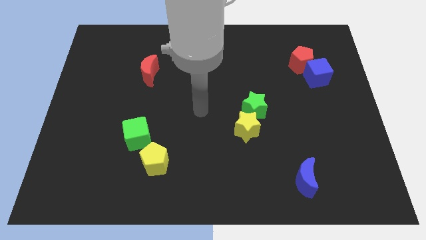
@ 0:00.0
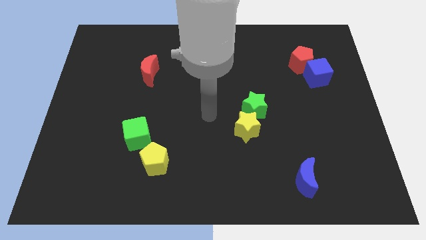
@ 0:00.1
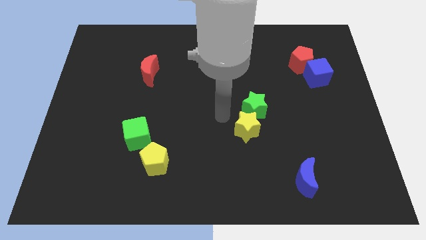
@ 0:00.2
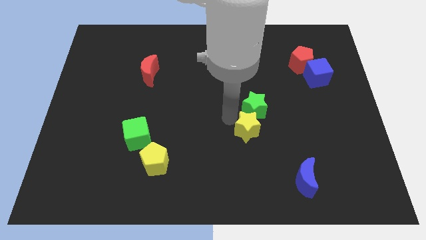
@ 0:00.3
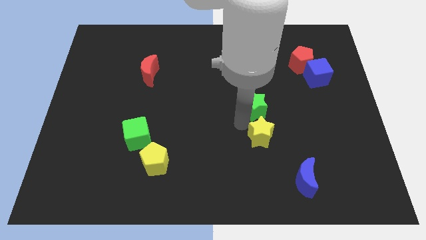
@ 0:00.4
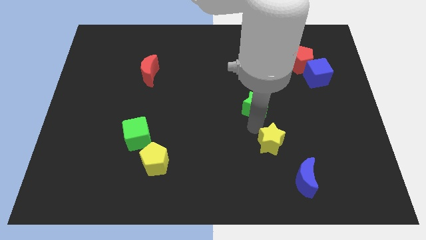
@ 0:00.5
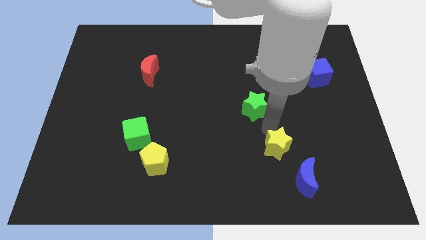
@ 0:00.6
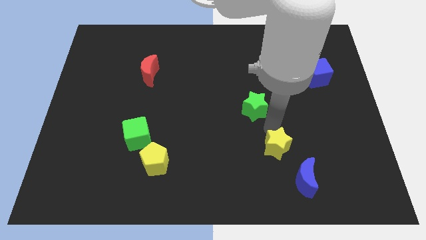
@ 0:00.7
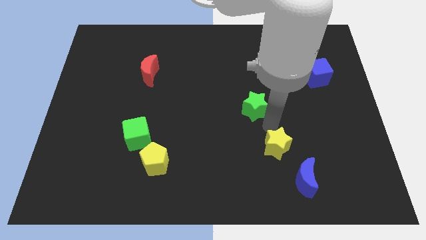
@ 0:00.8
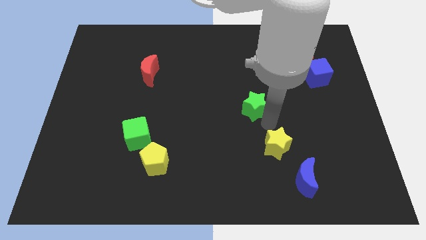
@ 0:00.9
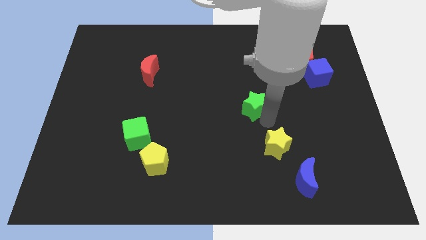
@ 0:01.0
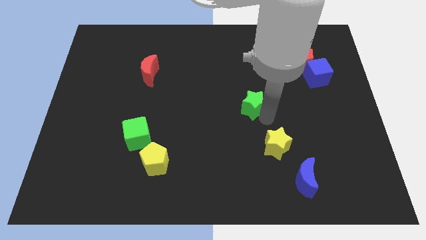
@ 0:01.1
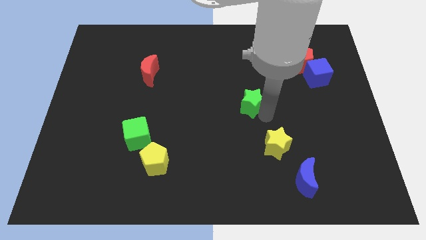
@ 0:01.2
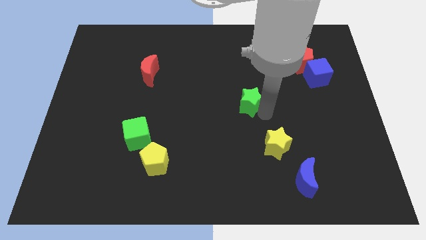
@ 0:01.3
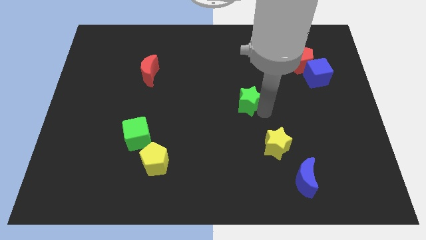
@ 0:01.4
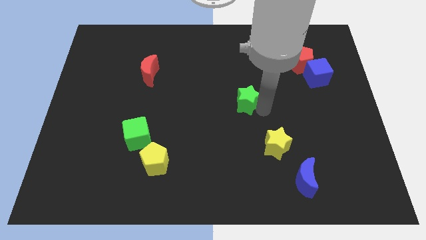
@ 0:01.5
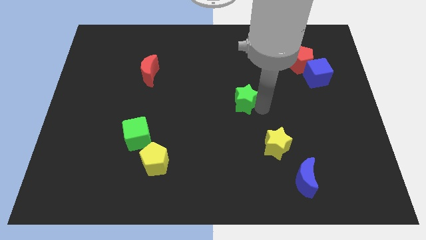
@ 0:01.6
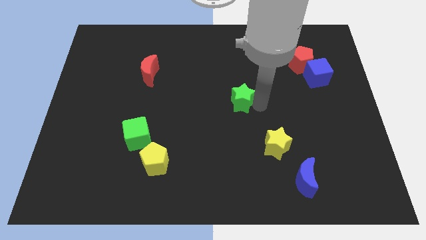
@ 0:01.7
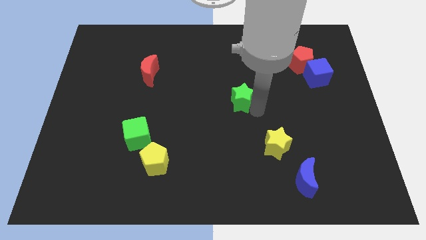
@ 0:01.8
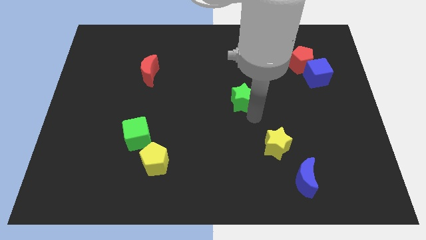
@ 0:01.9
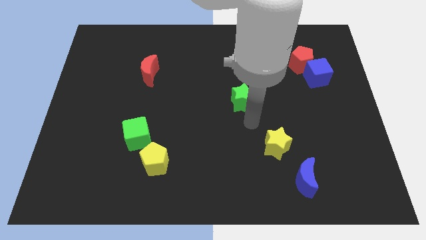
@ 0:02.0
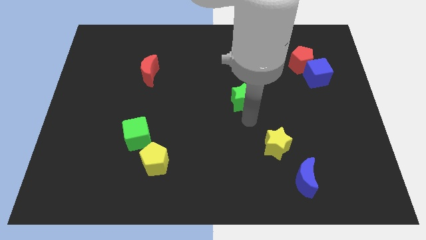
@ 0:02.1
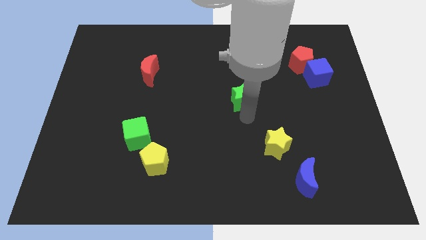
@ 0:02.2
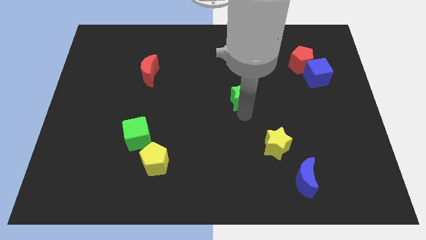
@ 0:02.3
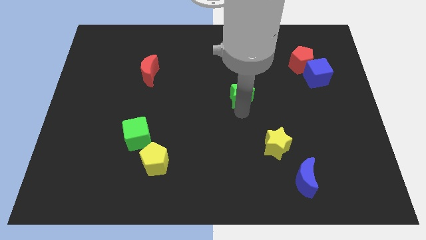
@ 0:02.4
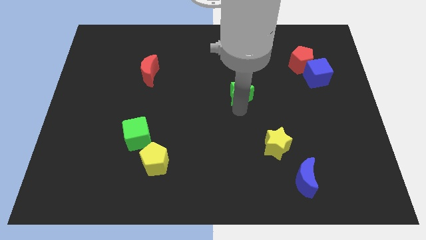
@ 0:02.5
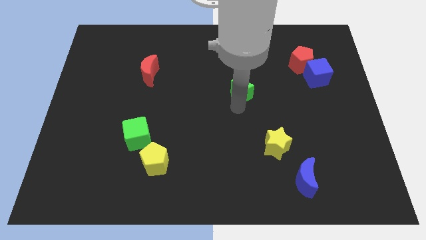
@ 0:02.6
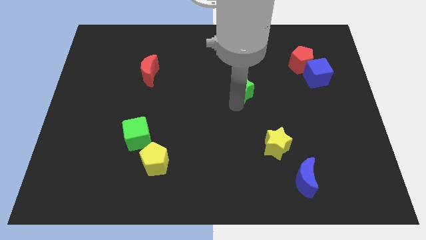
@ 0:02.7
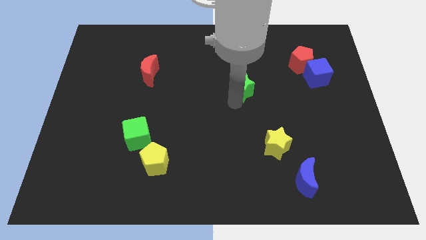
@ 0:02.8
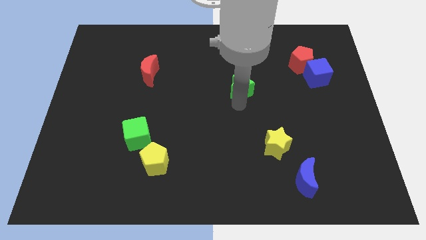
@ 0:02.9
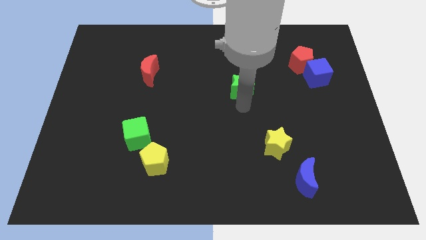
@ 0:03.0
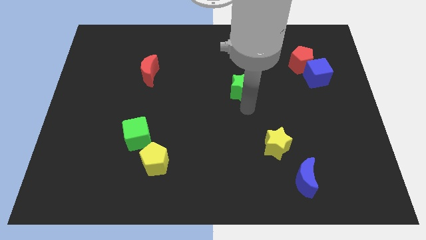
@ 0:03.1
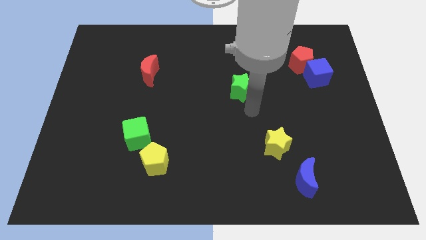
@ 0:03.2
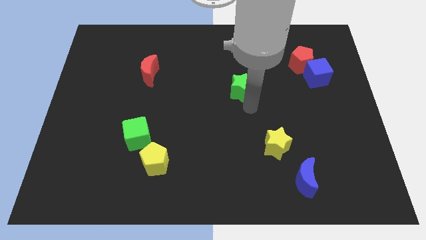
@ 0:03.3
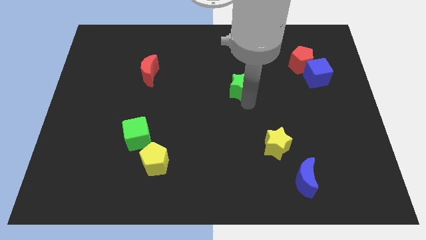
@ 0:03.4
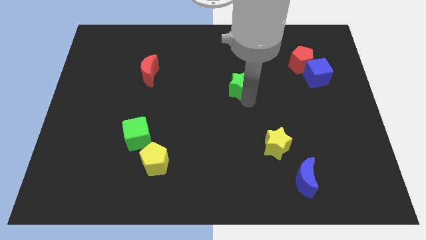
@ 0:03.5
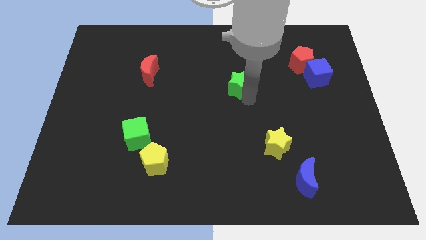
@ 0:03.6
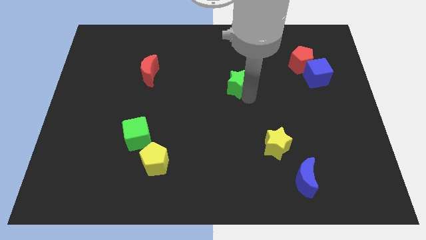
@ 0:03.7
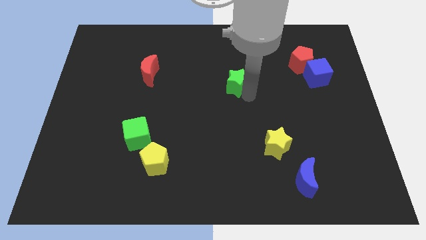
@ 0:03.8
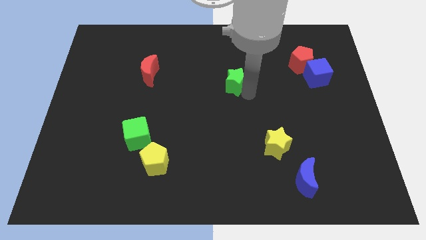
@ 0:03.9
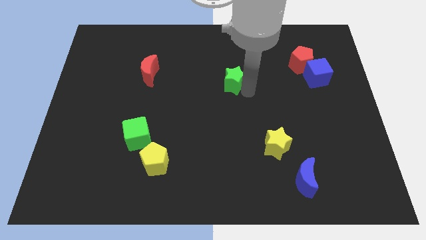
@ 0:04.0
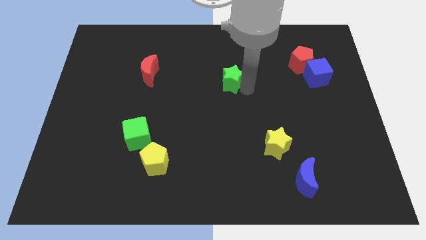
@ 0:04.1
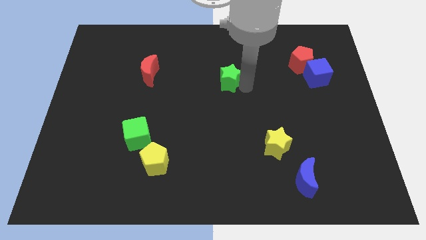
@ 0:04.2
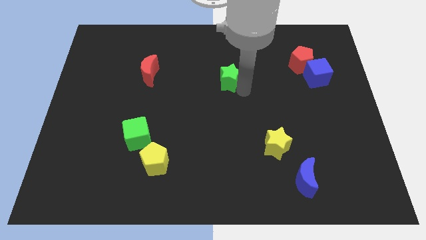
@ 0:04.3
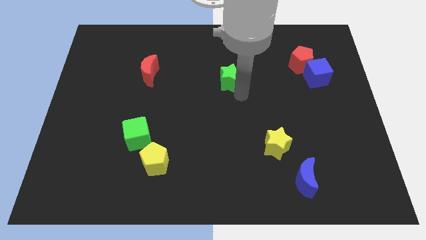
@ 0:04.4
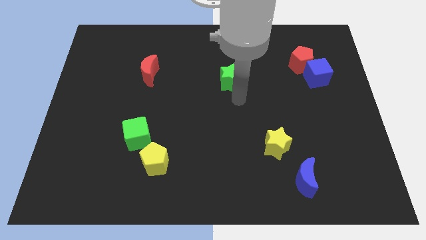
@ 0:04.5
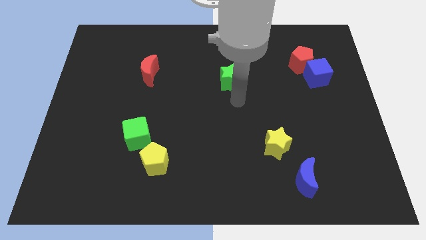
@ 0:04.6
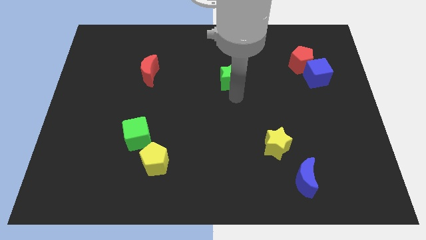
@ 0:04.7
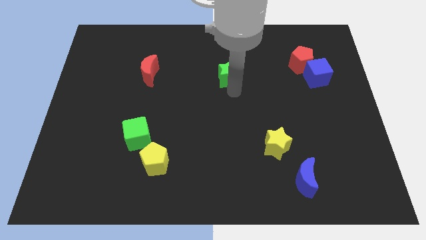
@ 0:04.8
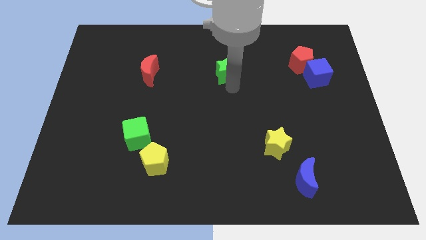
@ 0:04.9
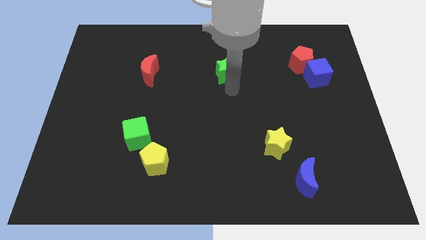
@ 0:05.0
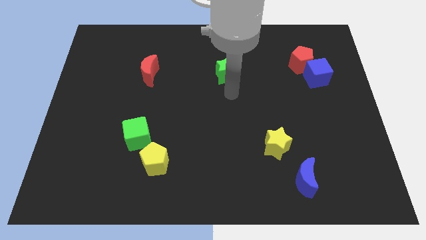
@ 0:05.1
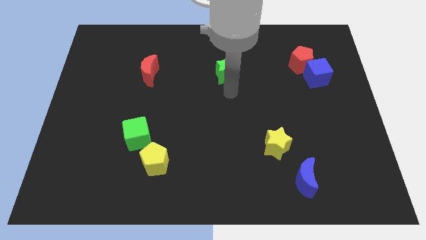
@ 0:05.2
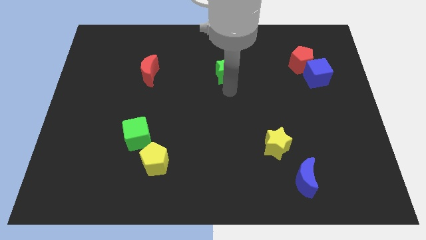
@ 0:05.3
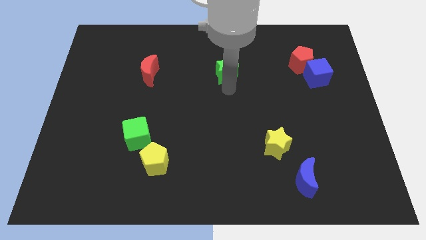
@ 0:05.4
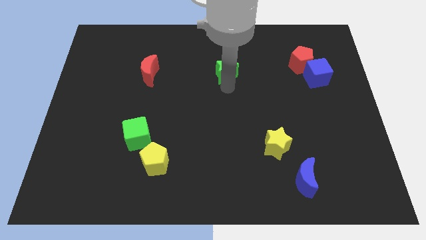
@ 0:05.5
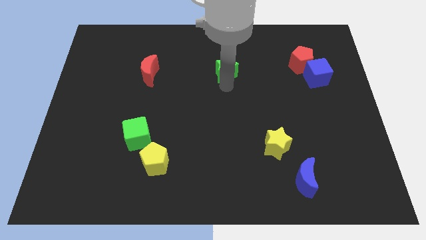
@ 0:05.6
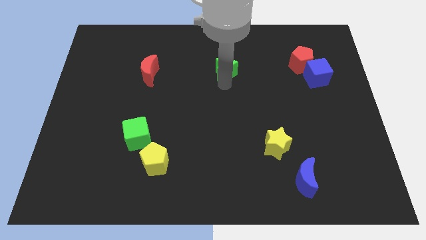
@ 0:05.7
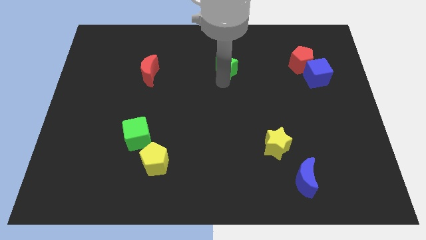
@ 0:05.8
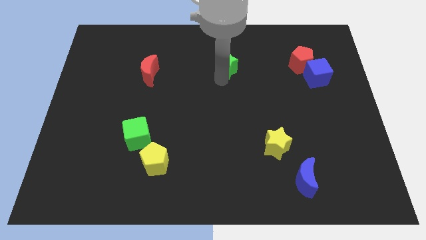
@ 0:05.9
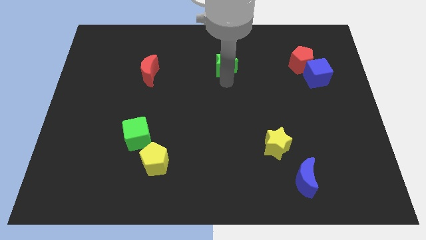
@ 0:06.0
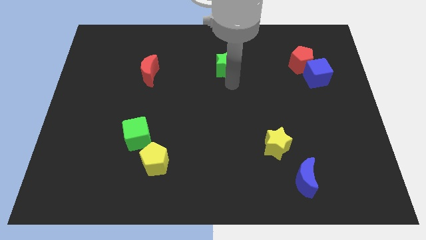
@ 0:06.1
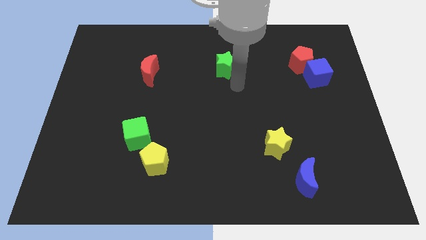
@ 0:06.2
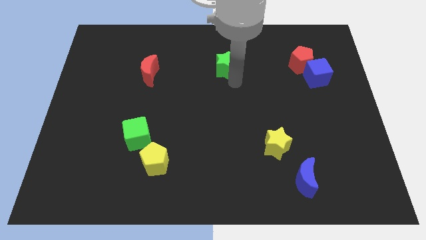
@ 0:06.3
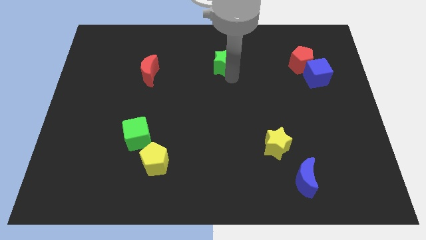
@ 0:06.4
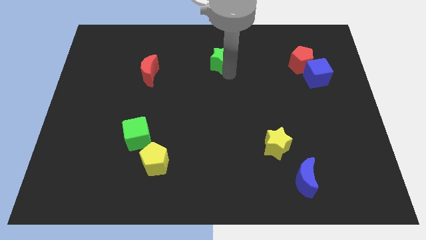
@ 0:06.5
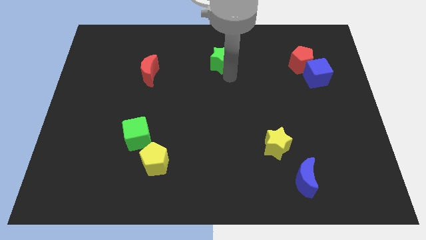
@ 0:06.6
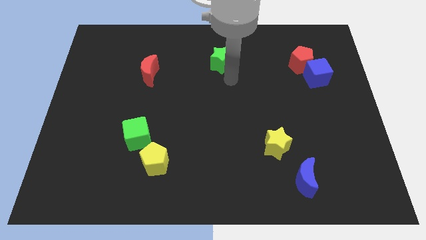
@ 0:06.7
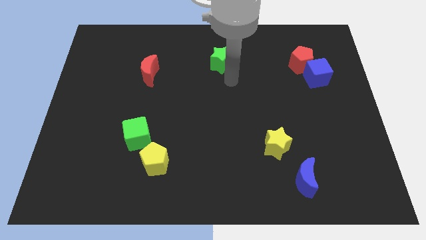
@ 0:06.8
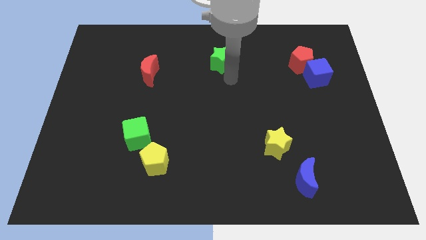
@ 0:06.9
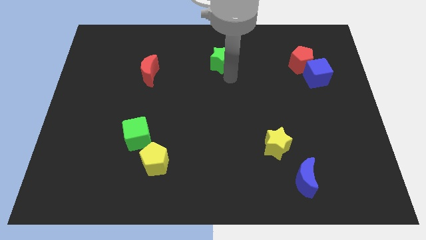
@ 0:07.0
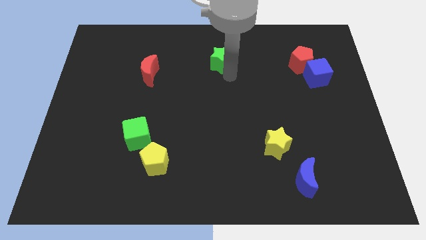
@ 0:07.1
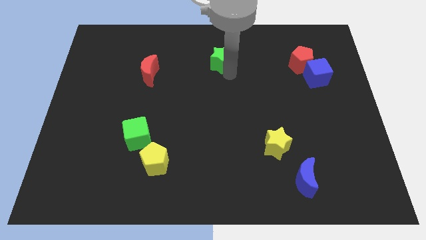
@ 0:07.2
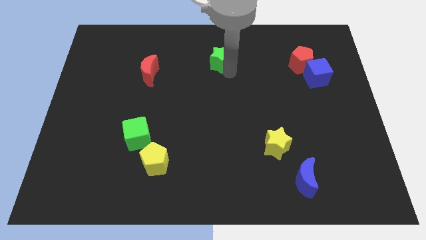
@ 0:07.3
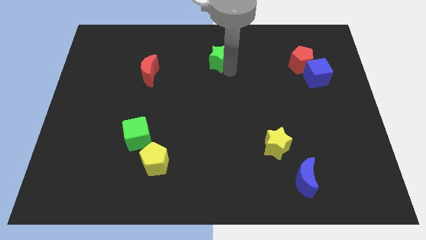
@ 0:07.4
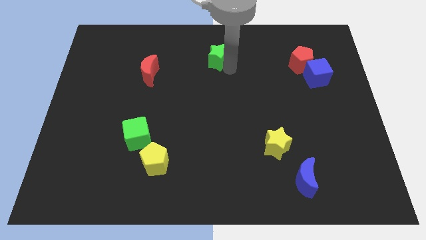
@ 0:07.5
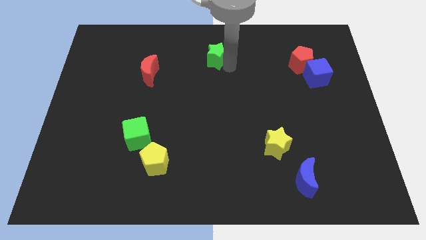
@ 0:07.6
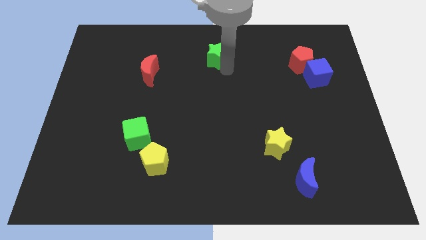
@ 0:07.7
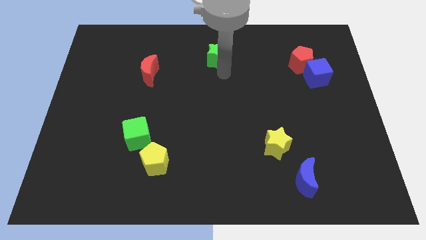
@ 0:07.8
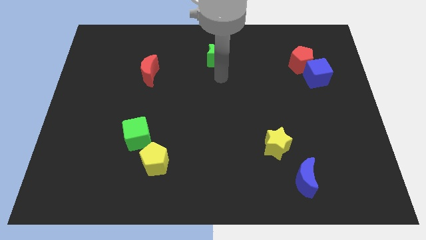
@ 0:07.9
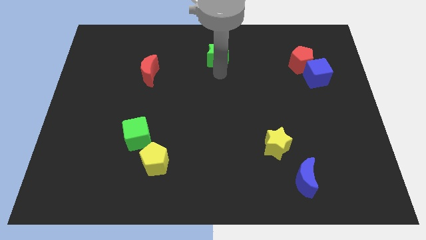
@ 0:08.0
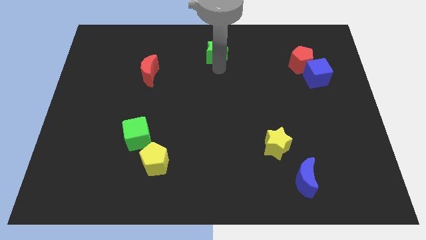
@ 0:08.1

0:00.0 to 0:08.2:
put the green star to the towards your base
